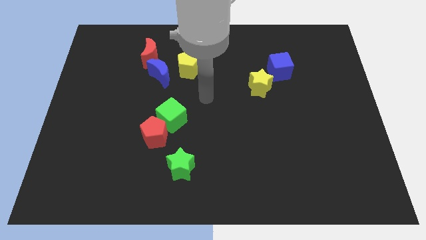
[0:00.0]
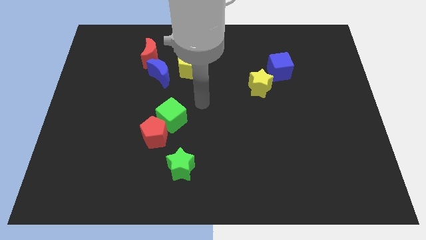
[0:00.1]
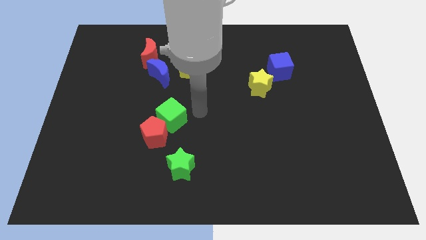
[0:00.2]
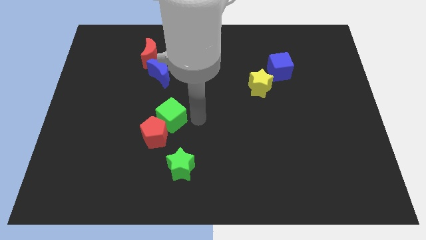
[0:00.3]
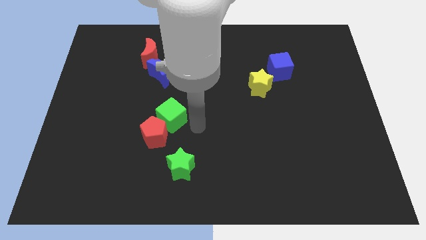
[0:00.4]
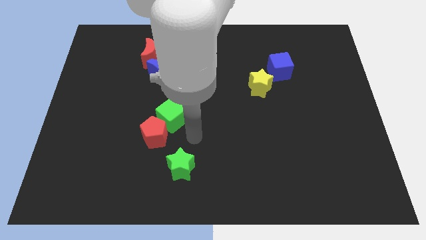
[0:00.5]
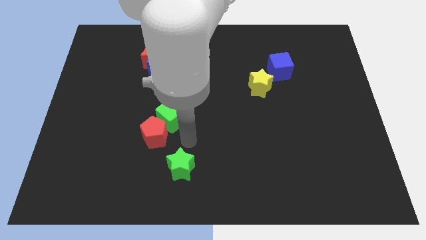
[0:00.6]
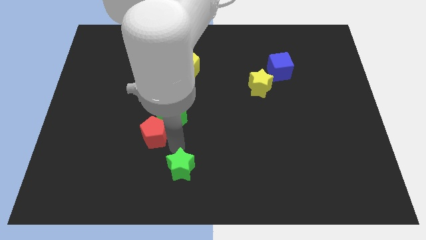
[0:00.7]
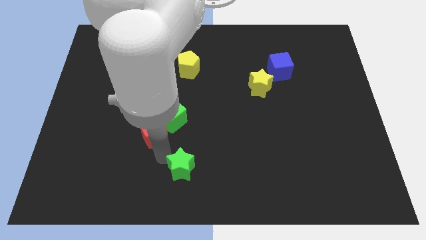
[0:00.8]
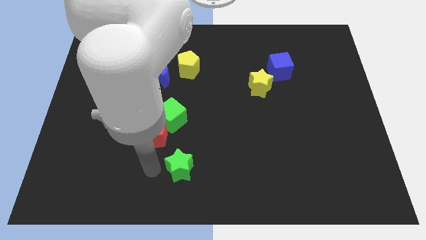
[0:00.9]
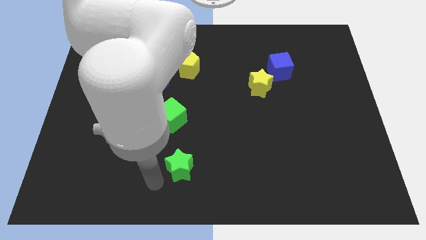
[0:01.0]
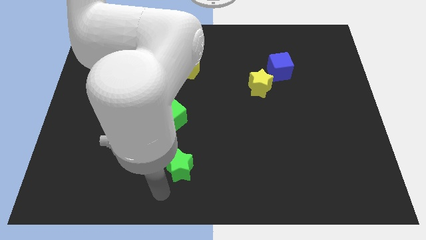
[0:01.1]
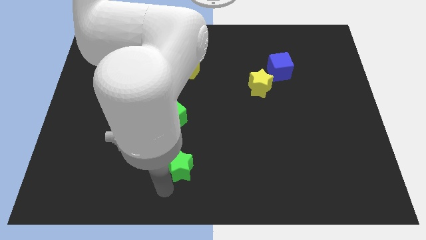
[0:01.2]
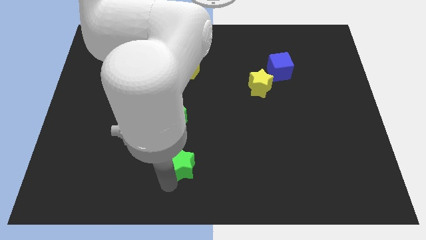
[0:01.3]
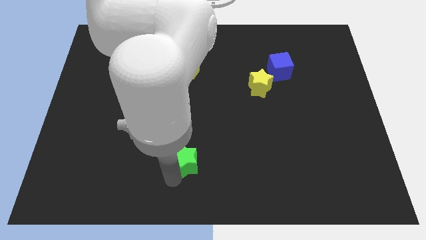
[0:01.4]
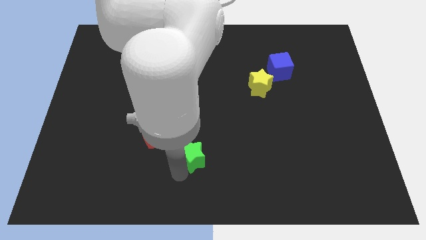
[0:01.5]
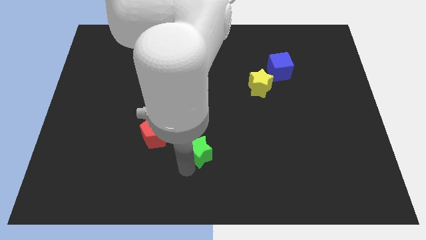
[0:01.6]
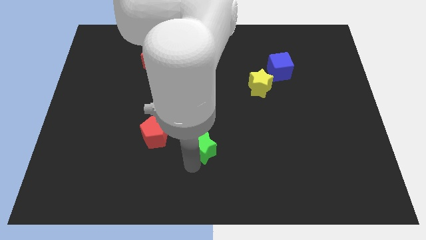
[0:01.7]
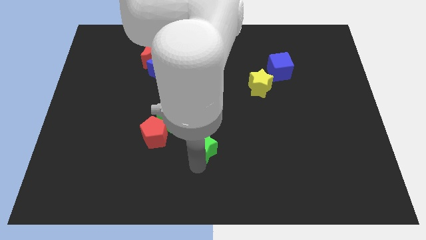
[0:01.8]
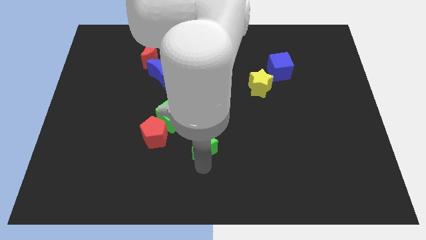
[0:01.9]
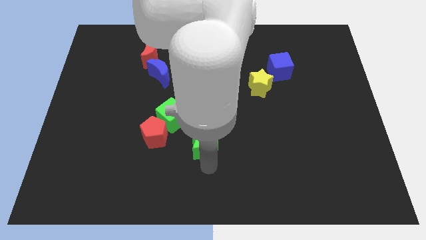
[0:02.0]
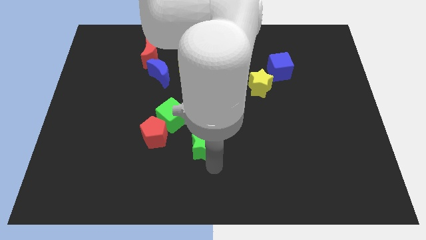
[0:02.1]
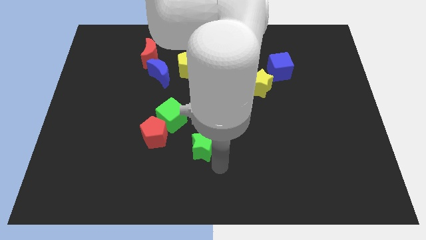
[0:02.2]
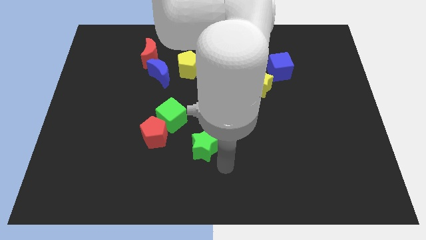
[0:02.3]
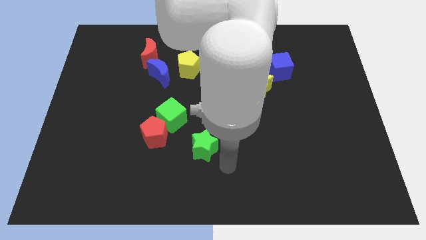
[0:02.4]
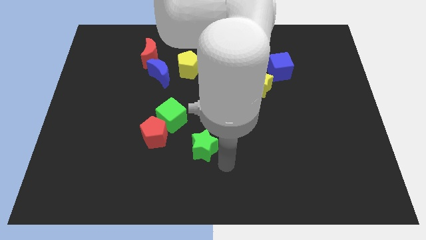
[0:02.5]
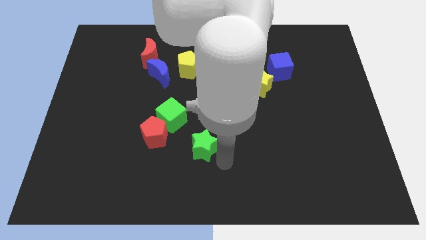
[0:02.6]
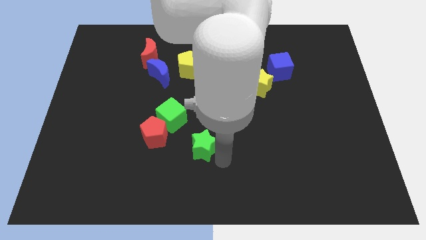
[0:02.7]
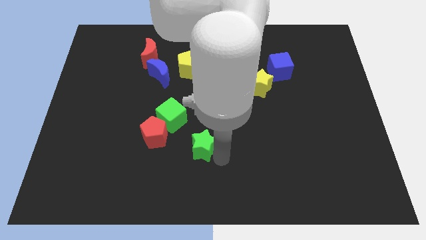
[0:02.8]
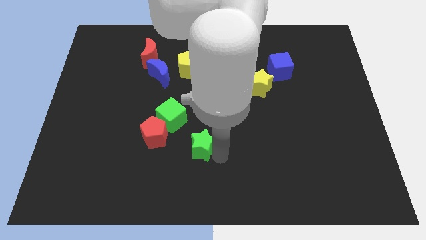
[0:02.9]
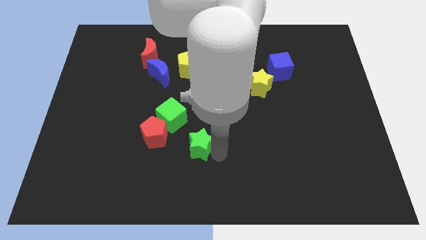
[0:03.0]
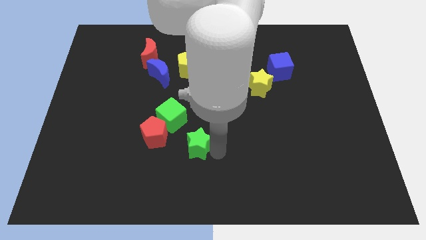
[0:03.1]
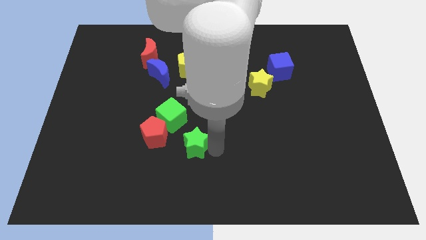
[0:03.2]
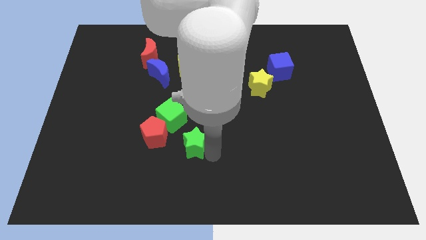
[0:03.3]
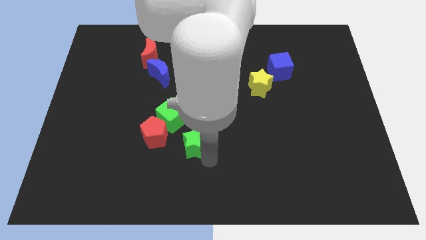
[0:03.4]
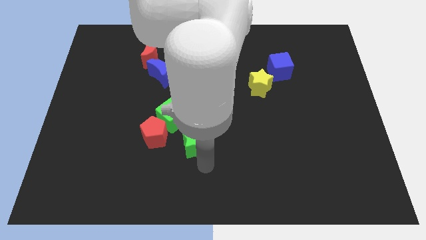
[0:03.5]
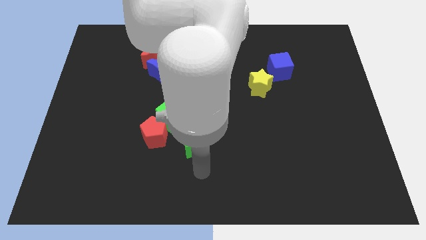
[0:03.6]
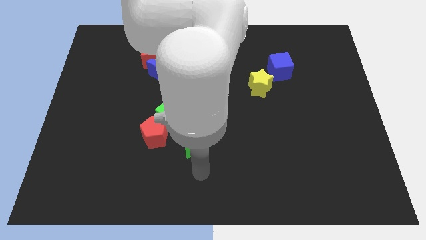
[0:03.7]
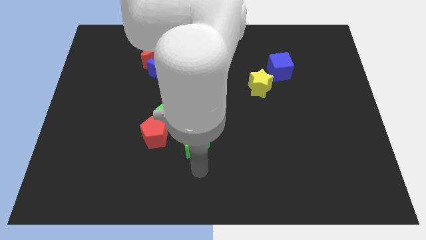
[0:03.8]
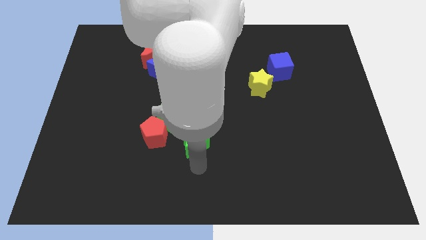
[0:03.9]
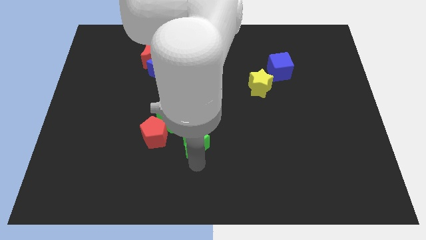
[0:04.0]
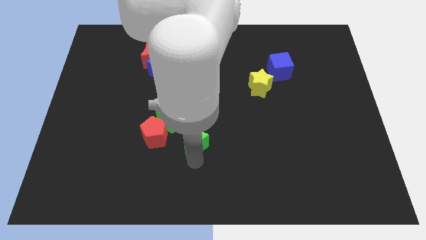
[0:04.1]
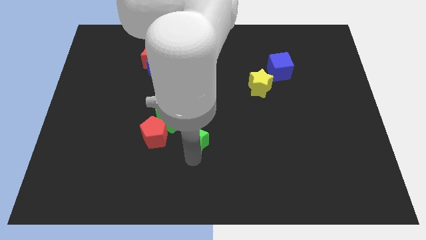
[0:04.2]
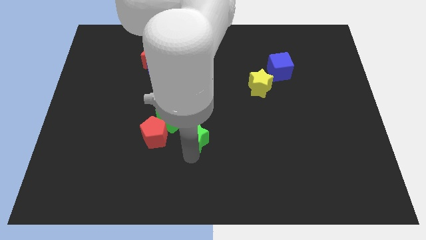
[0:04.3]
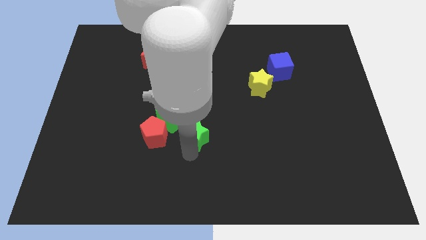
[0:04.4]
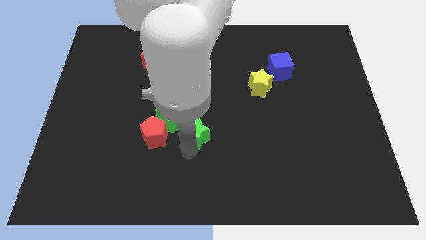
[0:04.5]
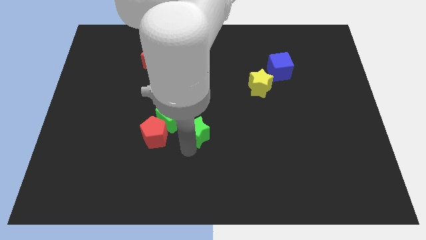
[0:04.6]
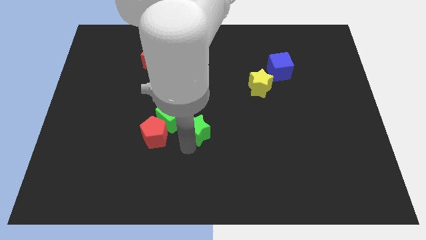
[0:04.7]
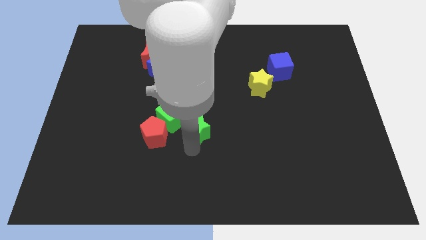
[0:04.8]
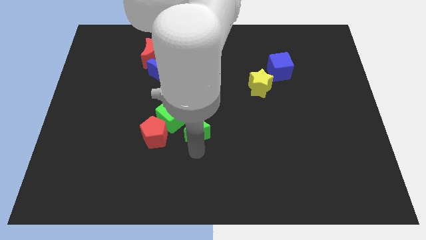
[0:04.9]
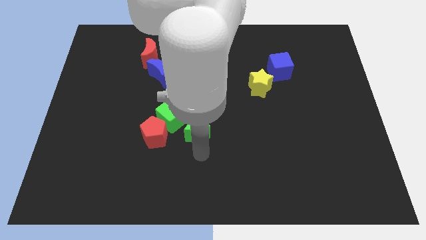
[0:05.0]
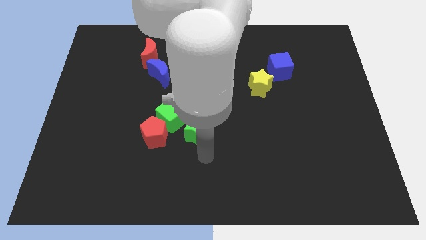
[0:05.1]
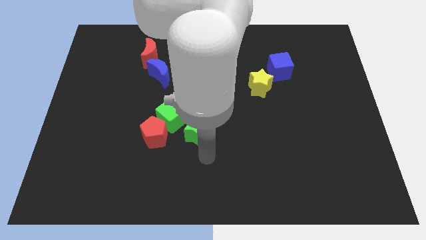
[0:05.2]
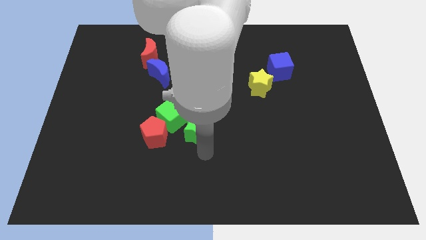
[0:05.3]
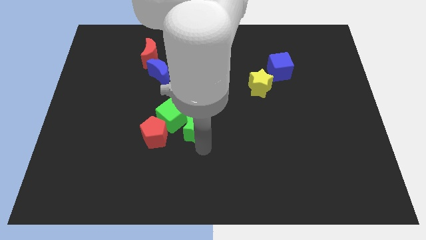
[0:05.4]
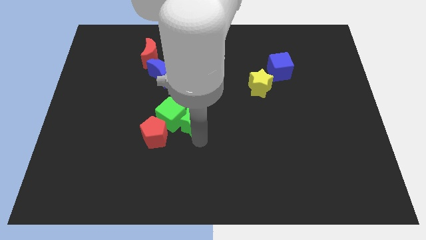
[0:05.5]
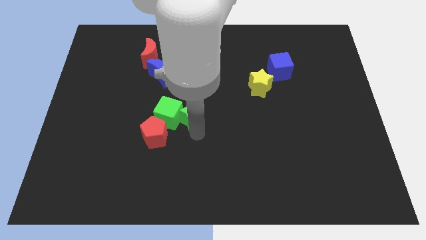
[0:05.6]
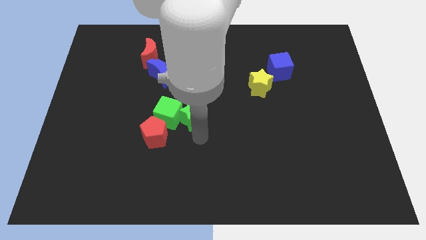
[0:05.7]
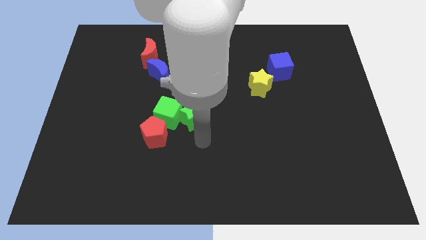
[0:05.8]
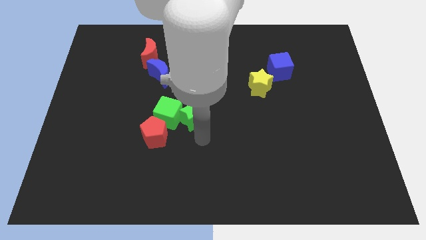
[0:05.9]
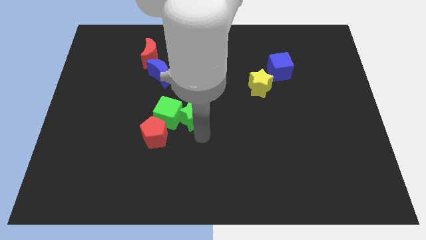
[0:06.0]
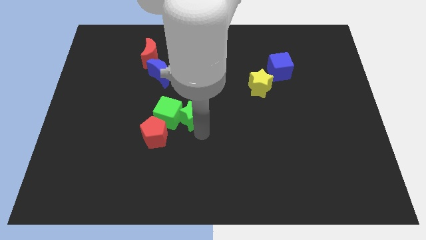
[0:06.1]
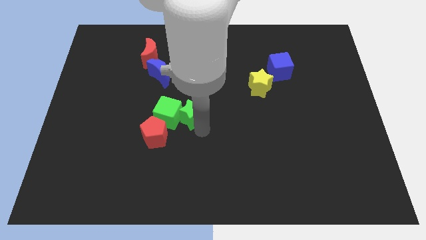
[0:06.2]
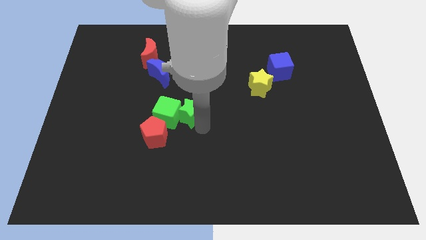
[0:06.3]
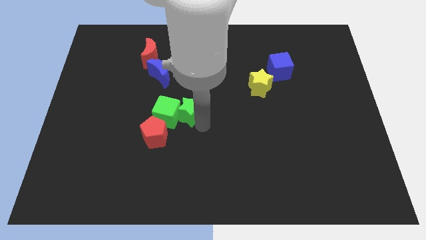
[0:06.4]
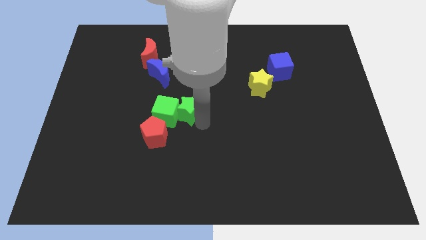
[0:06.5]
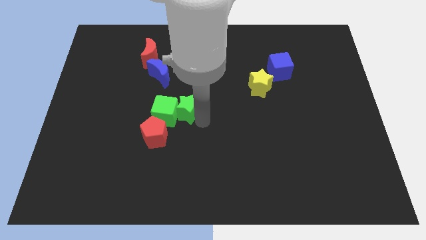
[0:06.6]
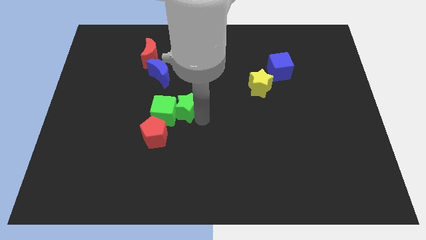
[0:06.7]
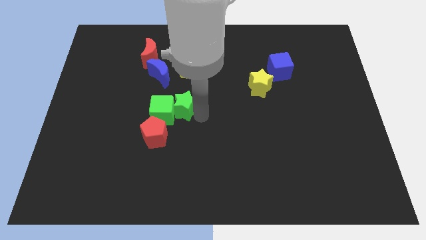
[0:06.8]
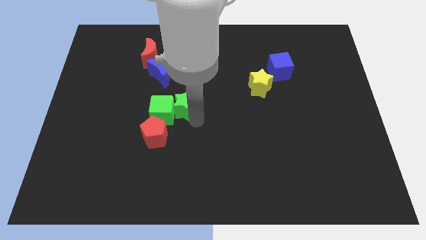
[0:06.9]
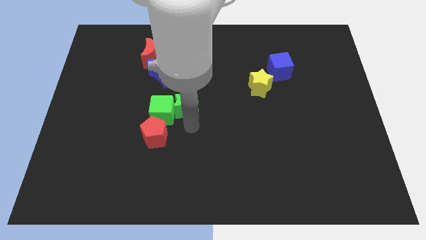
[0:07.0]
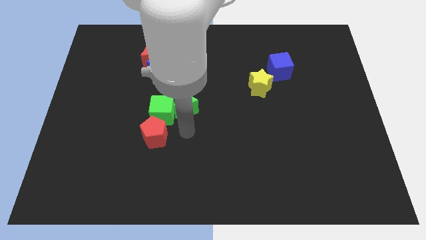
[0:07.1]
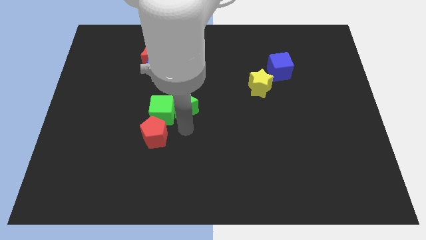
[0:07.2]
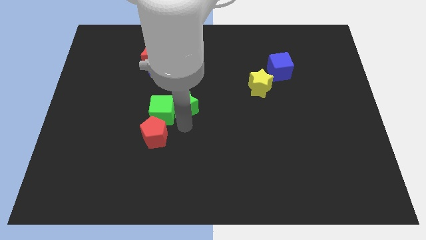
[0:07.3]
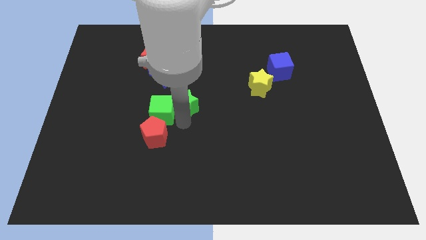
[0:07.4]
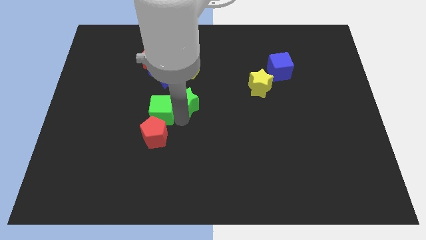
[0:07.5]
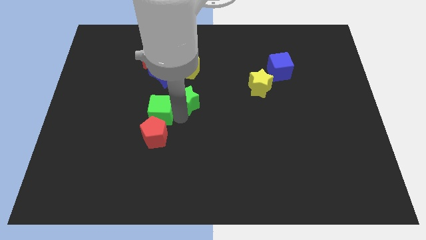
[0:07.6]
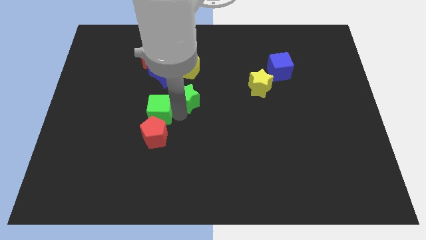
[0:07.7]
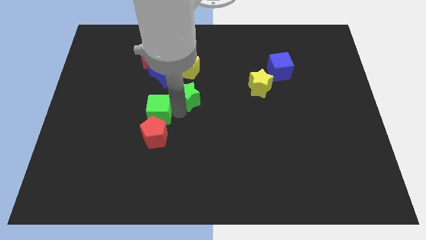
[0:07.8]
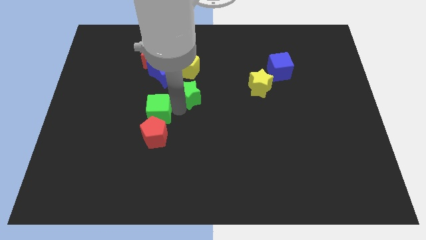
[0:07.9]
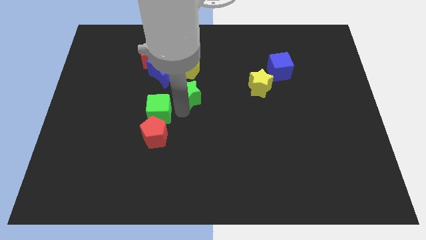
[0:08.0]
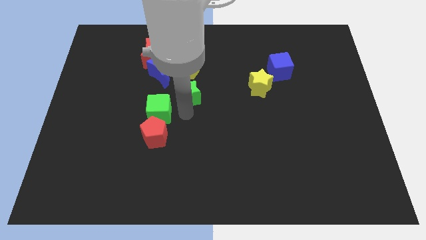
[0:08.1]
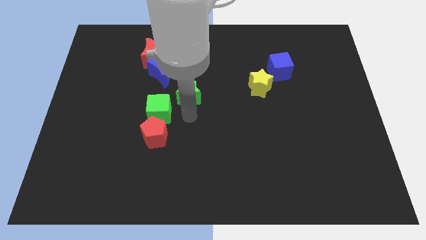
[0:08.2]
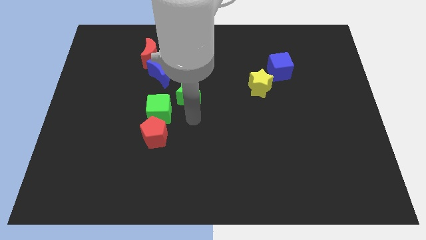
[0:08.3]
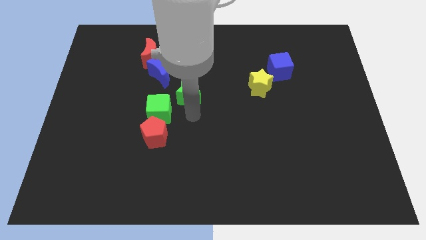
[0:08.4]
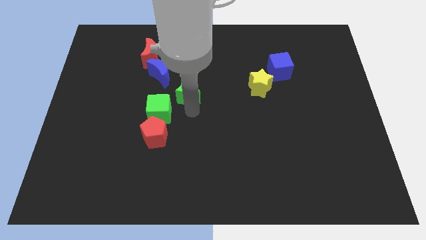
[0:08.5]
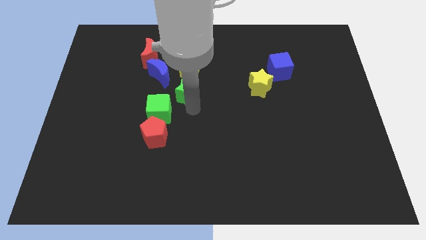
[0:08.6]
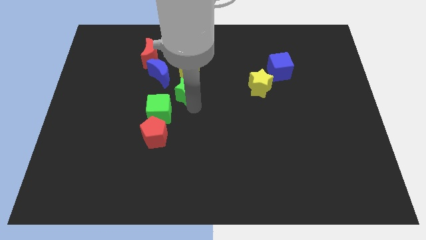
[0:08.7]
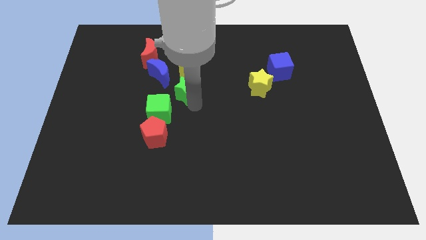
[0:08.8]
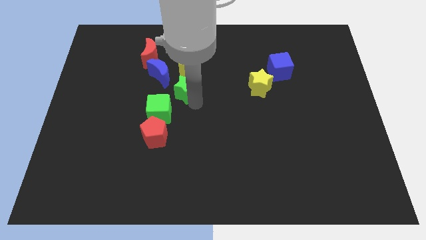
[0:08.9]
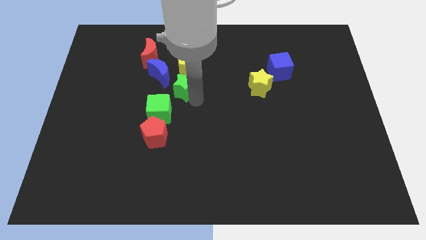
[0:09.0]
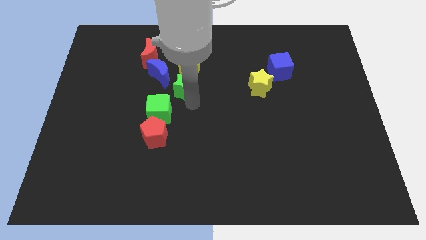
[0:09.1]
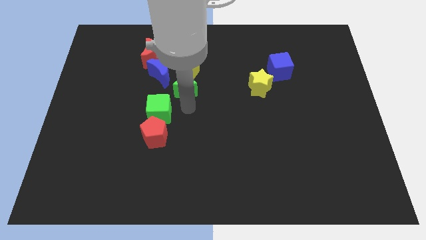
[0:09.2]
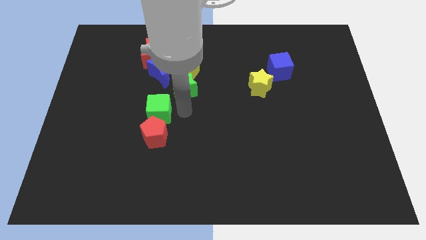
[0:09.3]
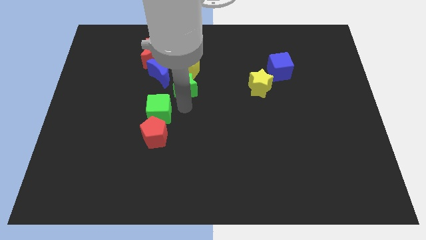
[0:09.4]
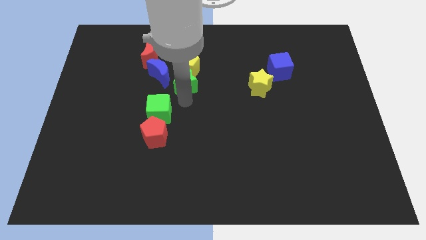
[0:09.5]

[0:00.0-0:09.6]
slide the green star towards the yellow pentagon
